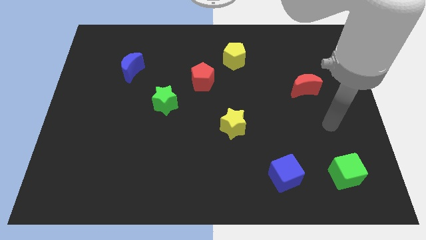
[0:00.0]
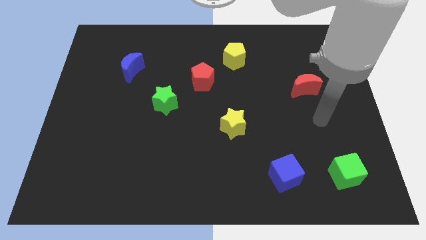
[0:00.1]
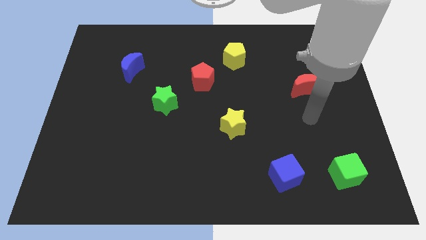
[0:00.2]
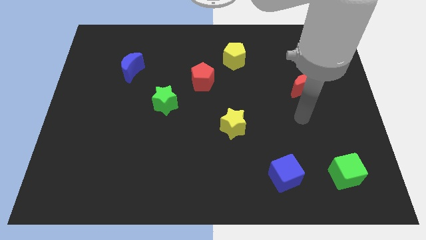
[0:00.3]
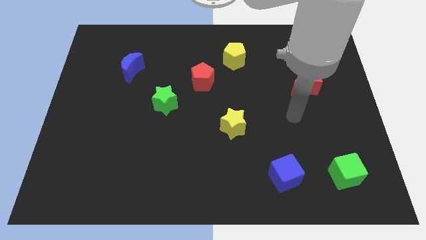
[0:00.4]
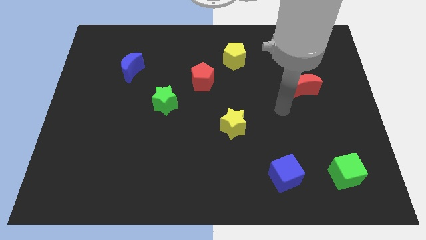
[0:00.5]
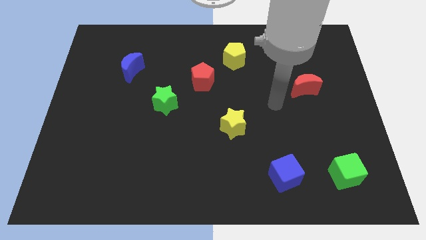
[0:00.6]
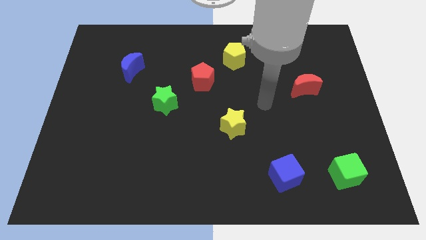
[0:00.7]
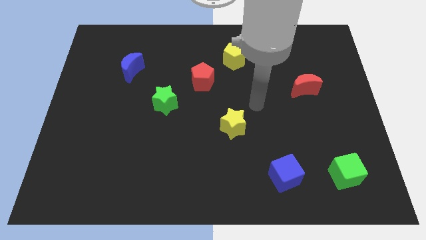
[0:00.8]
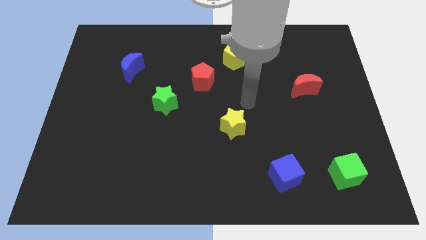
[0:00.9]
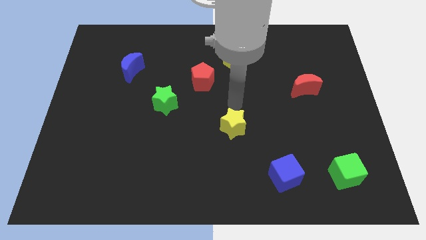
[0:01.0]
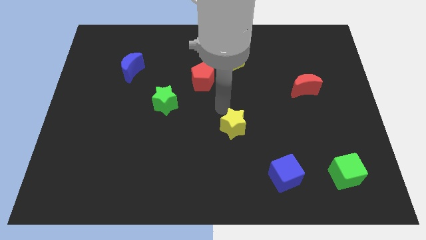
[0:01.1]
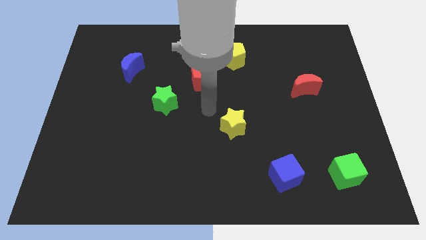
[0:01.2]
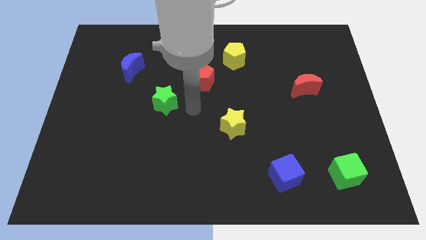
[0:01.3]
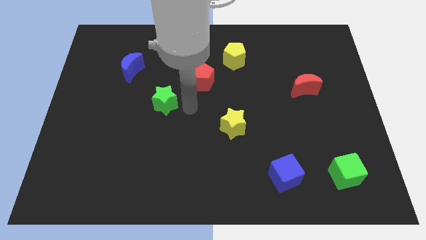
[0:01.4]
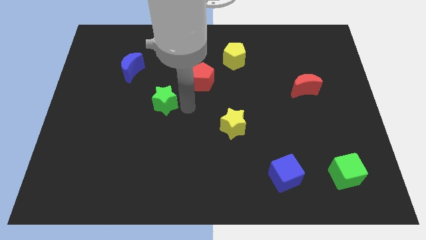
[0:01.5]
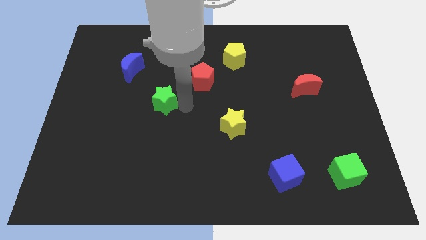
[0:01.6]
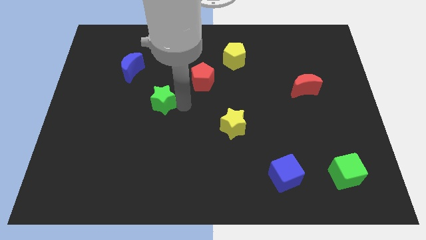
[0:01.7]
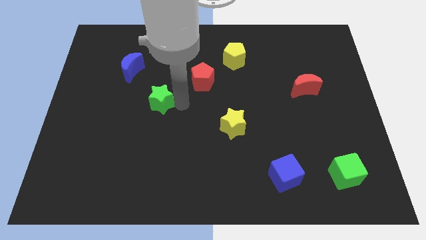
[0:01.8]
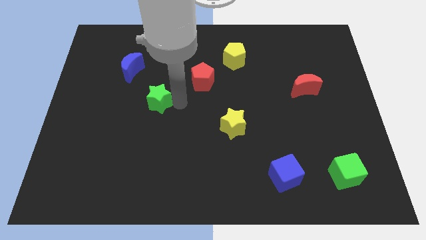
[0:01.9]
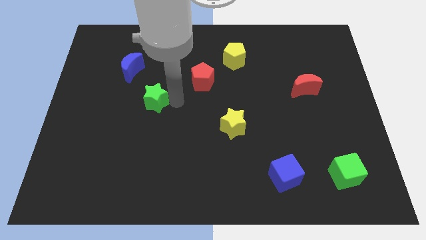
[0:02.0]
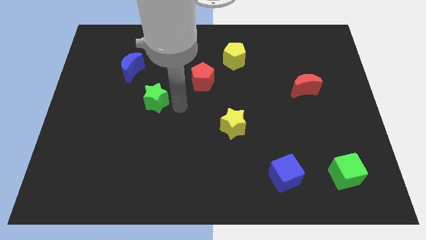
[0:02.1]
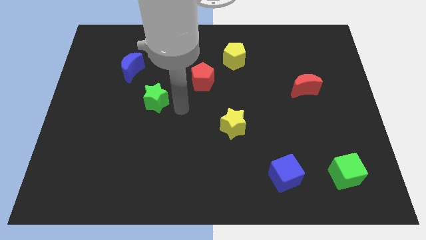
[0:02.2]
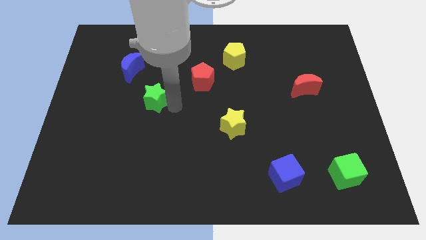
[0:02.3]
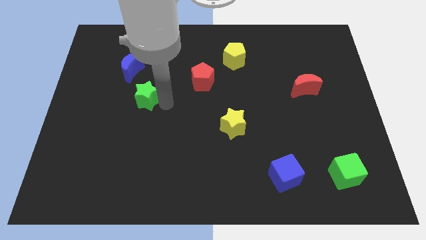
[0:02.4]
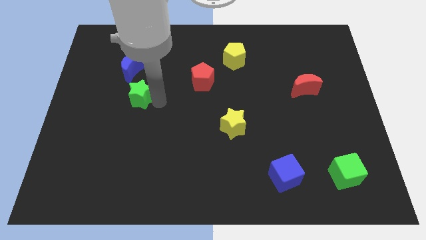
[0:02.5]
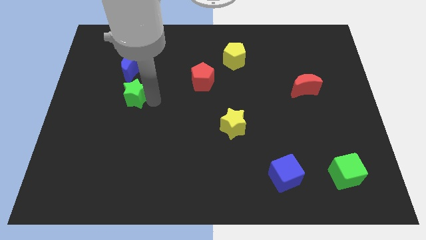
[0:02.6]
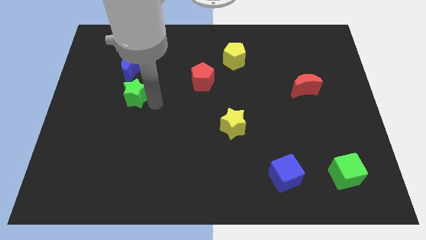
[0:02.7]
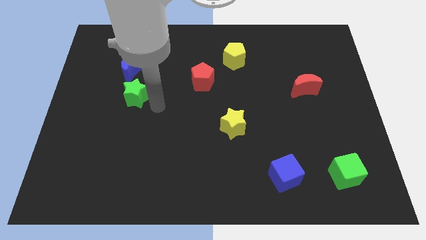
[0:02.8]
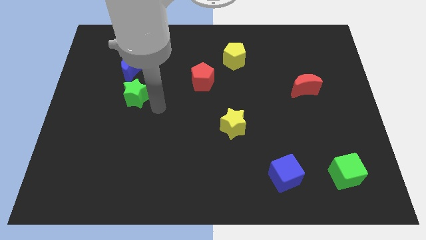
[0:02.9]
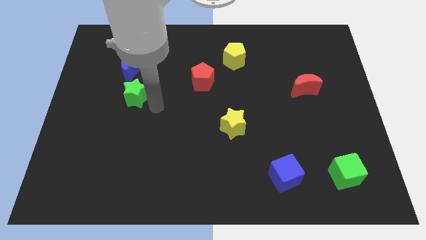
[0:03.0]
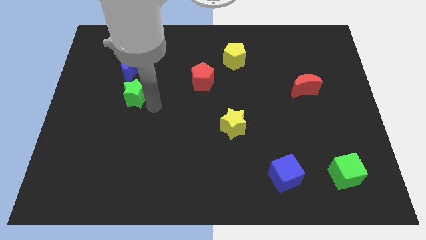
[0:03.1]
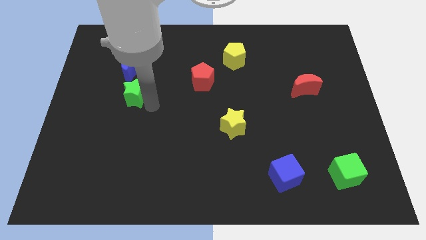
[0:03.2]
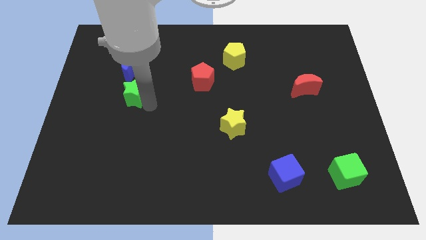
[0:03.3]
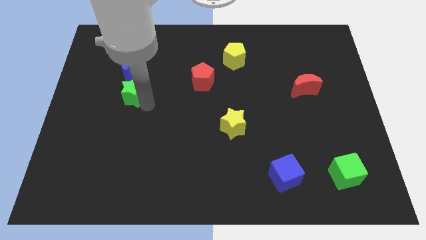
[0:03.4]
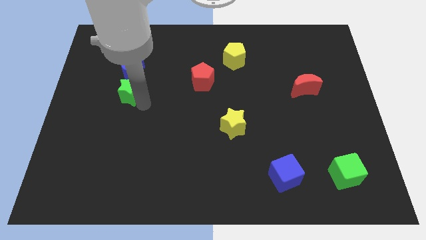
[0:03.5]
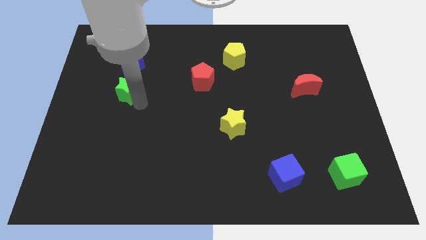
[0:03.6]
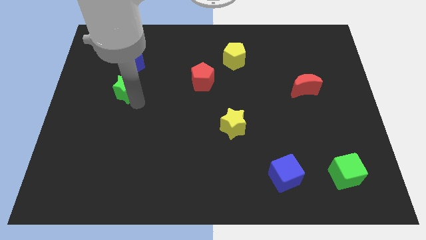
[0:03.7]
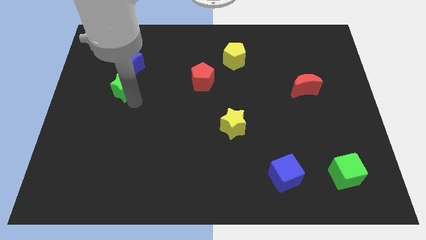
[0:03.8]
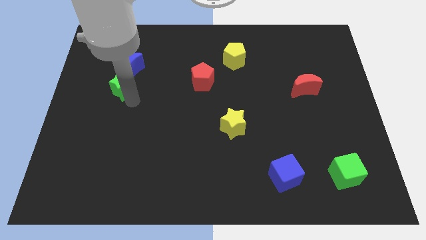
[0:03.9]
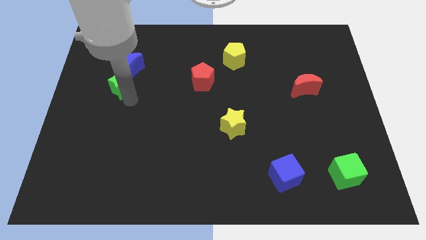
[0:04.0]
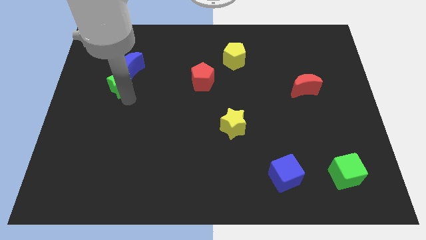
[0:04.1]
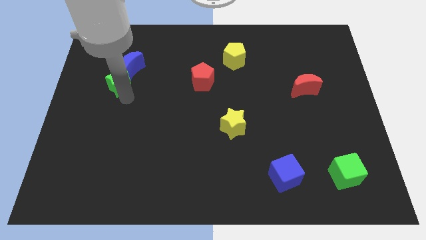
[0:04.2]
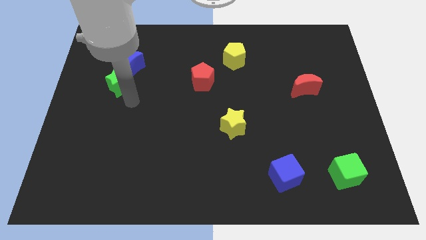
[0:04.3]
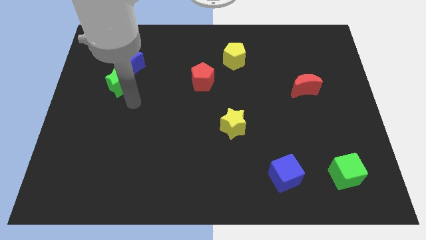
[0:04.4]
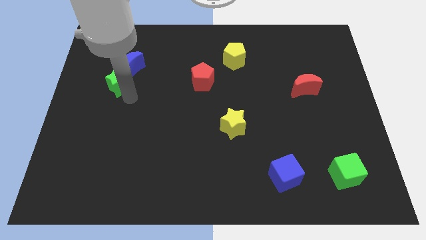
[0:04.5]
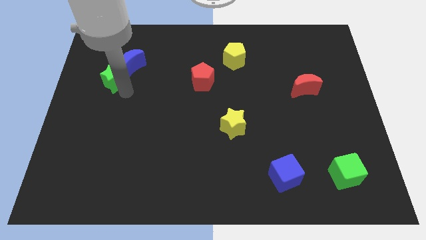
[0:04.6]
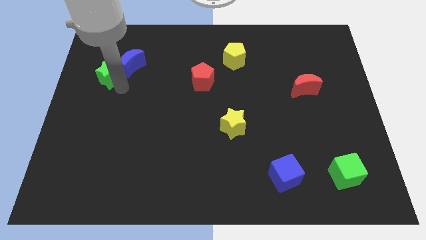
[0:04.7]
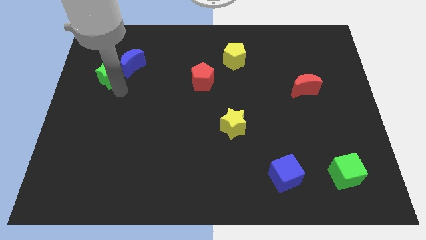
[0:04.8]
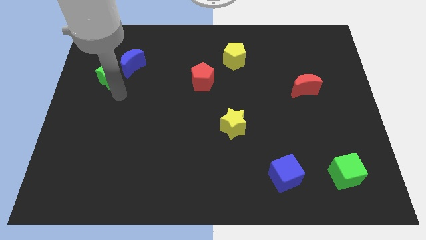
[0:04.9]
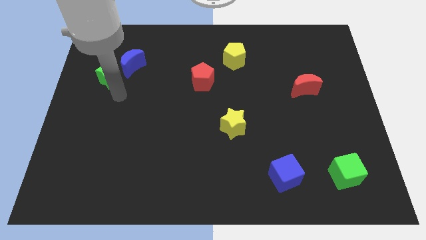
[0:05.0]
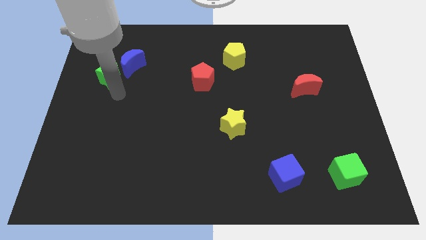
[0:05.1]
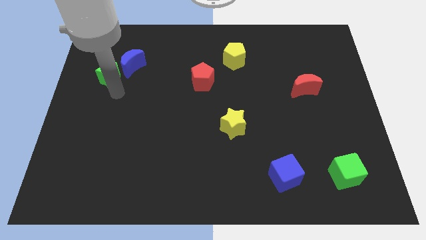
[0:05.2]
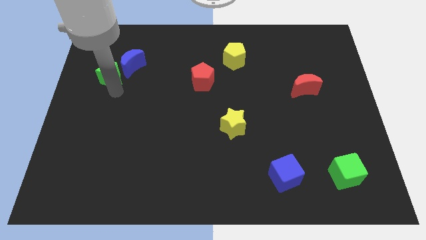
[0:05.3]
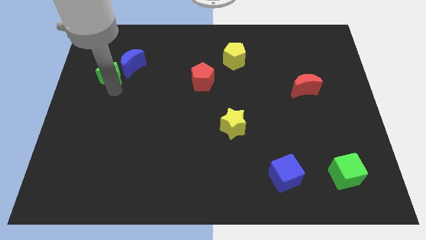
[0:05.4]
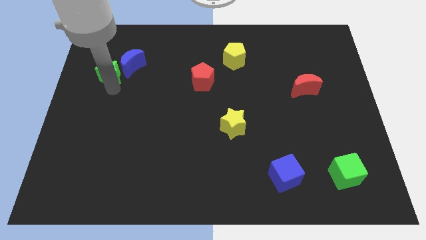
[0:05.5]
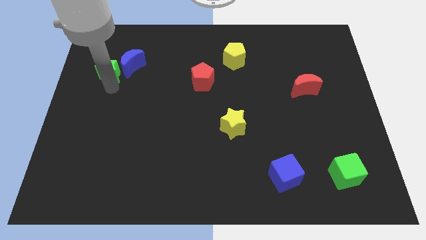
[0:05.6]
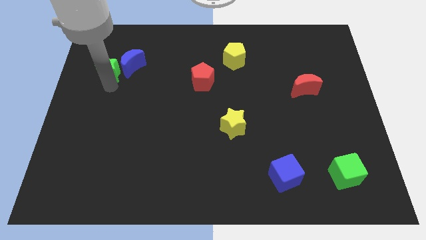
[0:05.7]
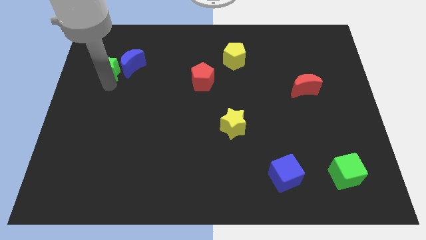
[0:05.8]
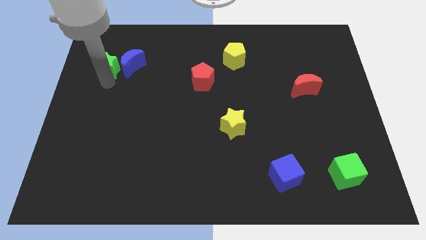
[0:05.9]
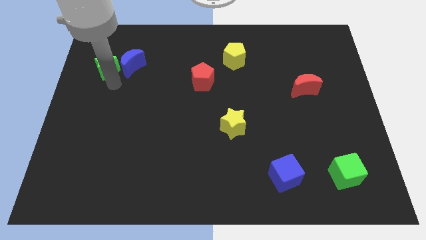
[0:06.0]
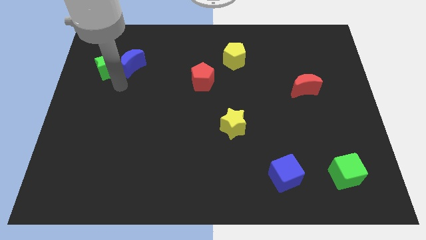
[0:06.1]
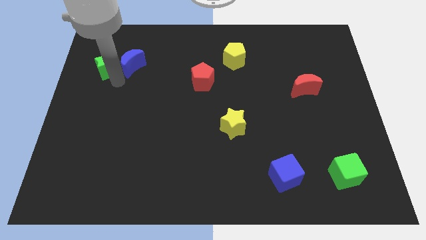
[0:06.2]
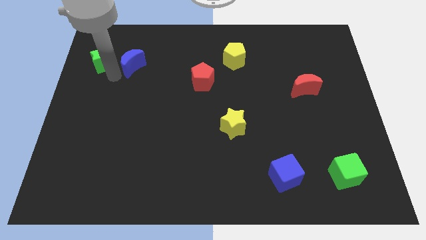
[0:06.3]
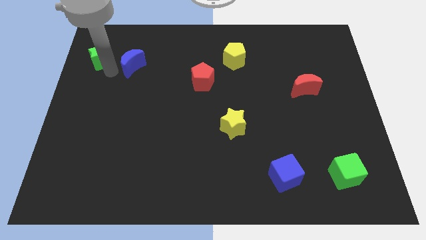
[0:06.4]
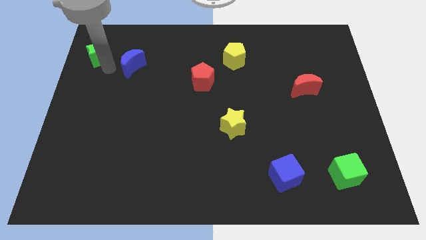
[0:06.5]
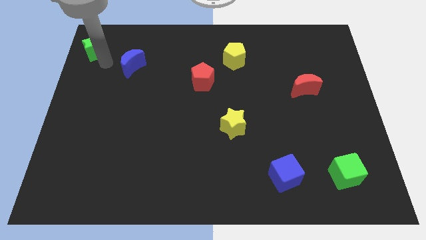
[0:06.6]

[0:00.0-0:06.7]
push the green star to the top left
